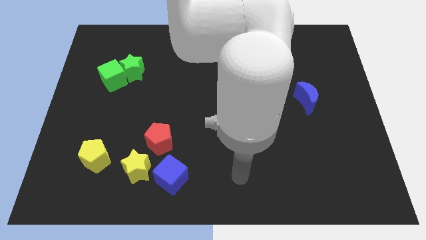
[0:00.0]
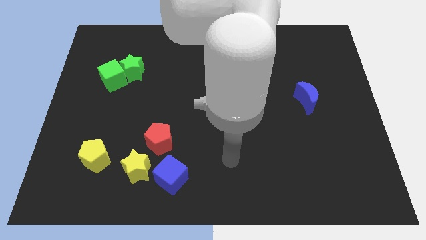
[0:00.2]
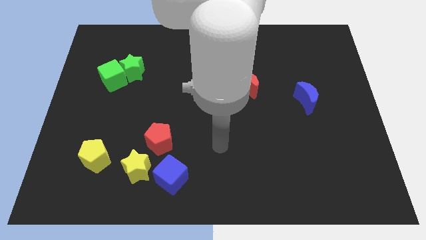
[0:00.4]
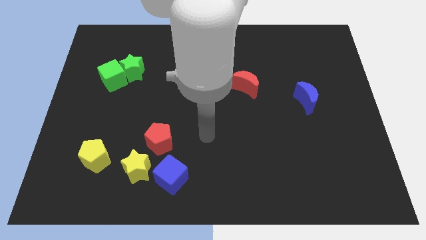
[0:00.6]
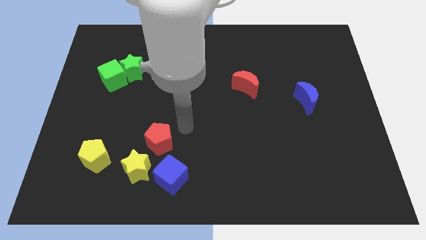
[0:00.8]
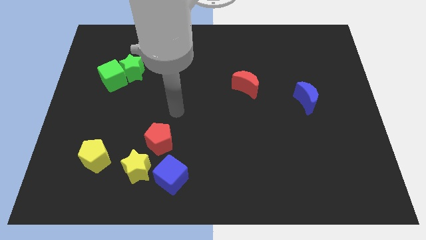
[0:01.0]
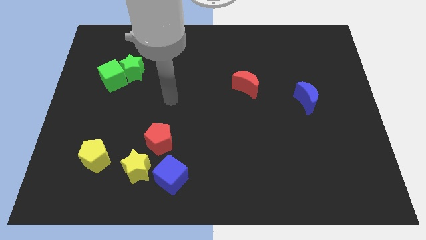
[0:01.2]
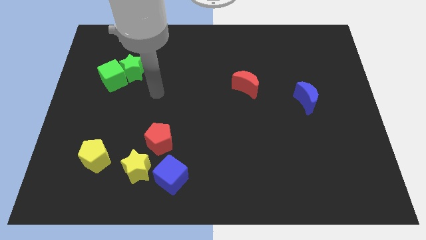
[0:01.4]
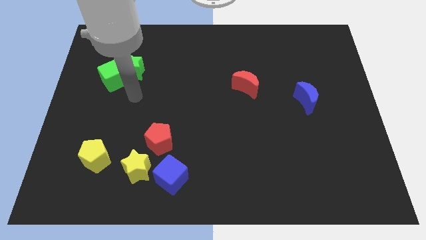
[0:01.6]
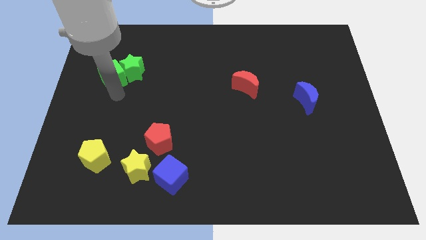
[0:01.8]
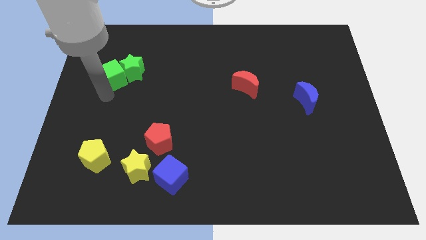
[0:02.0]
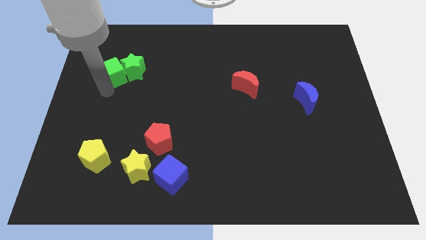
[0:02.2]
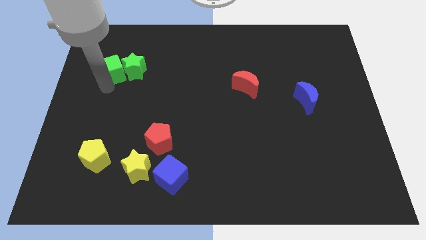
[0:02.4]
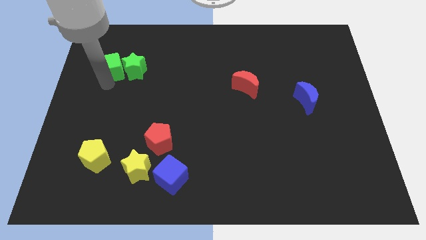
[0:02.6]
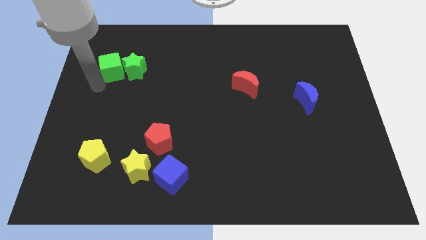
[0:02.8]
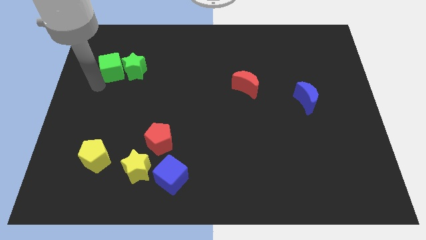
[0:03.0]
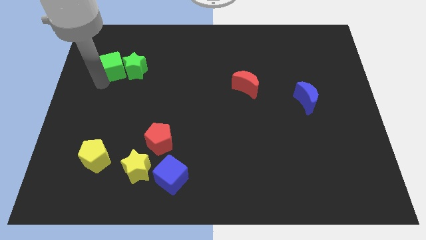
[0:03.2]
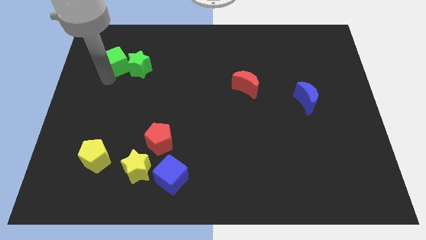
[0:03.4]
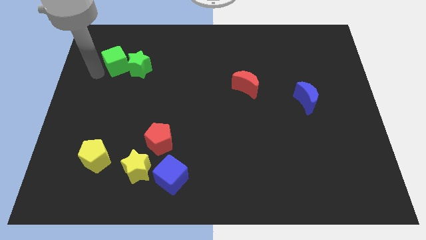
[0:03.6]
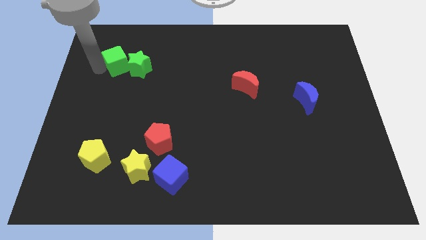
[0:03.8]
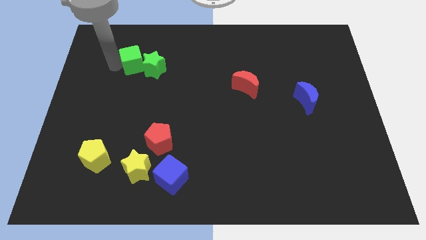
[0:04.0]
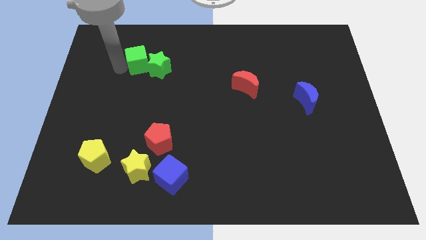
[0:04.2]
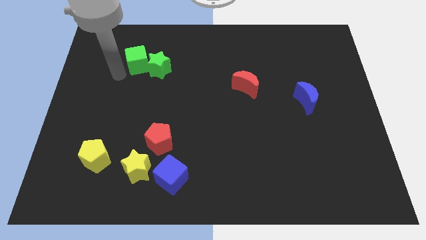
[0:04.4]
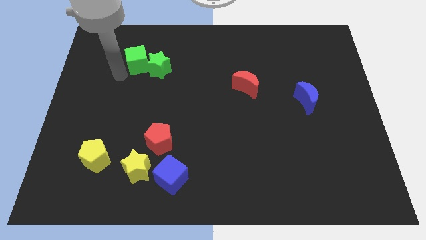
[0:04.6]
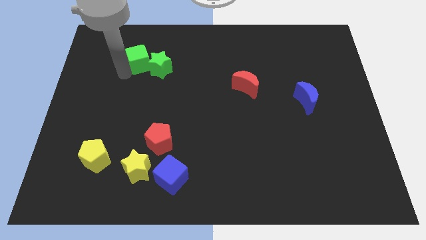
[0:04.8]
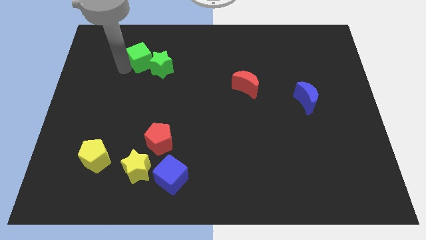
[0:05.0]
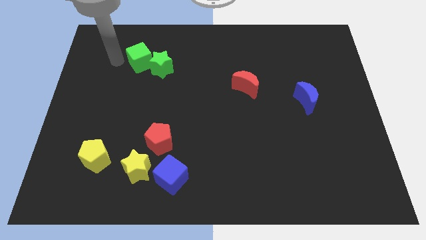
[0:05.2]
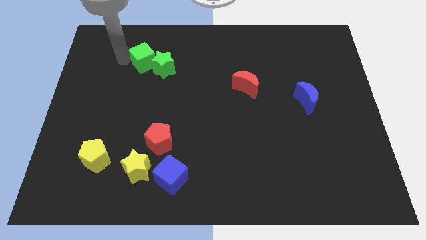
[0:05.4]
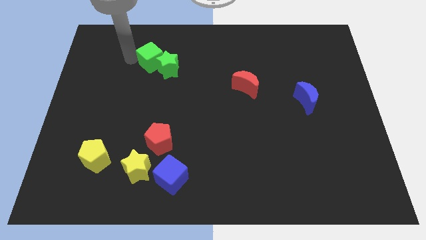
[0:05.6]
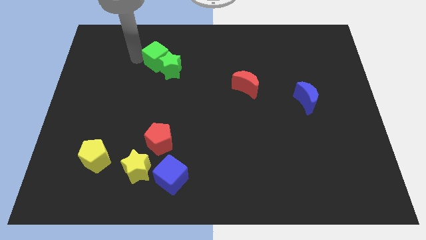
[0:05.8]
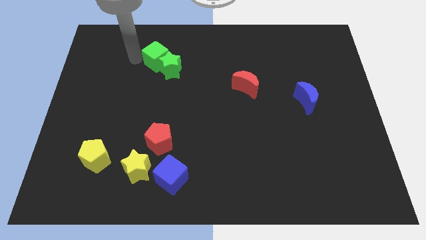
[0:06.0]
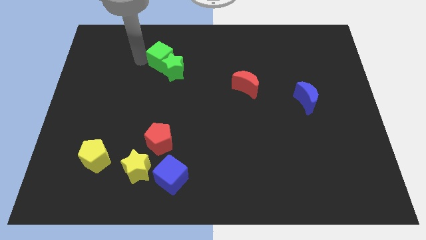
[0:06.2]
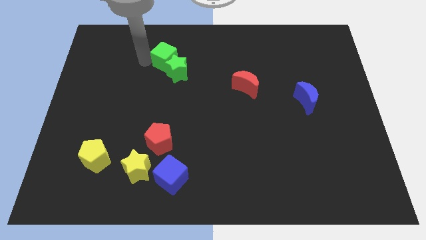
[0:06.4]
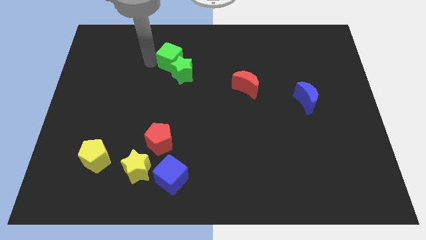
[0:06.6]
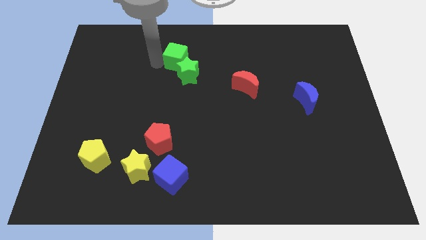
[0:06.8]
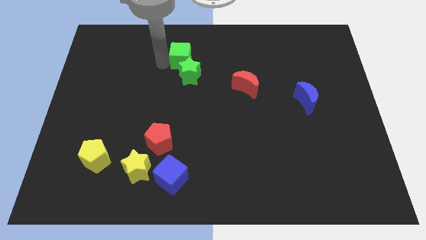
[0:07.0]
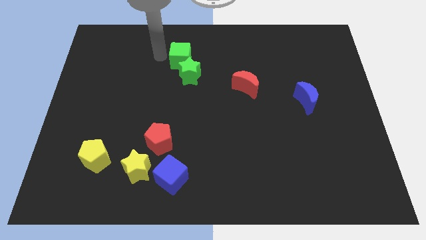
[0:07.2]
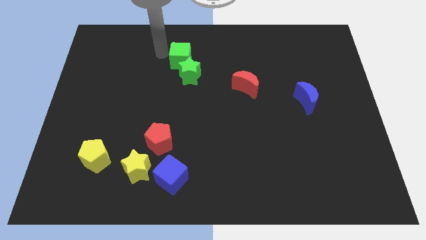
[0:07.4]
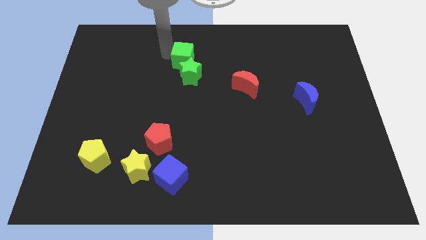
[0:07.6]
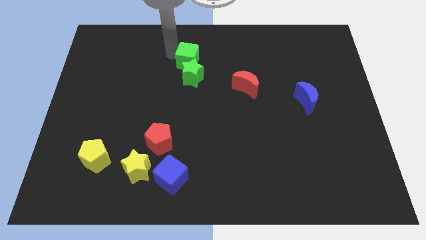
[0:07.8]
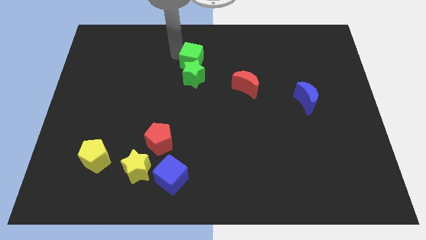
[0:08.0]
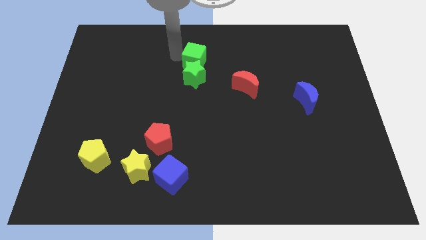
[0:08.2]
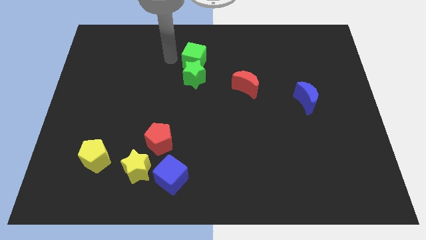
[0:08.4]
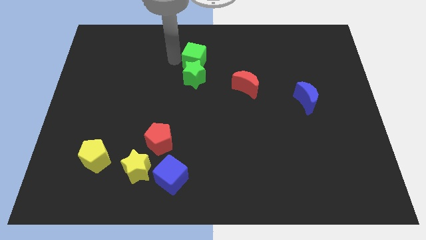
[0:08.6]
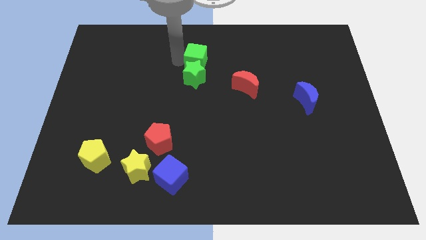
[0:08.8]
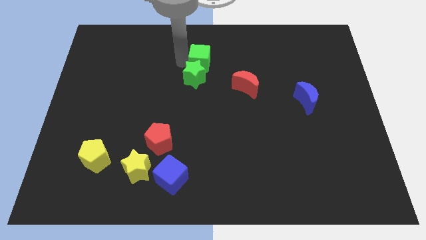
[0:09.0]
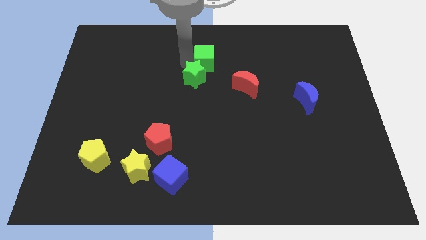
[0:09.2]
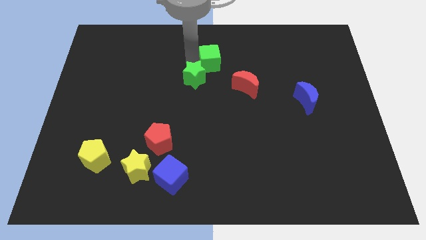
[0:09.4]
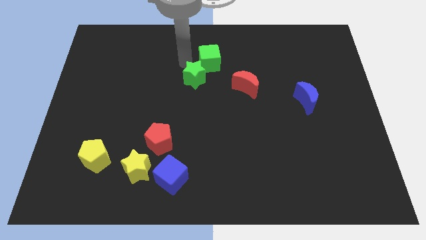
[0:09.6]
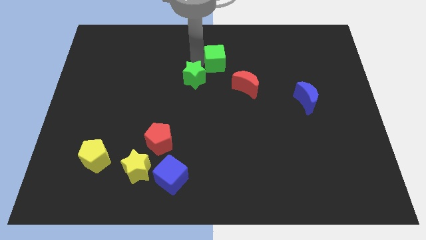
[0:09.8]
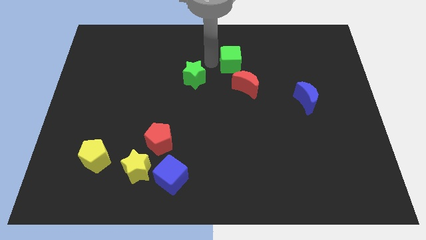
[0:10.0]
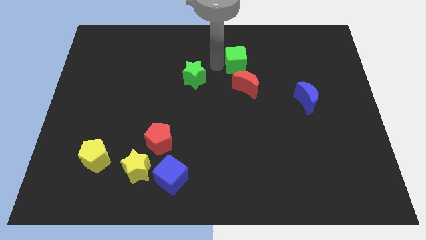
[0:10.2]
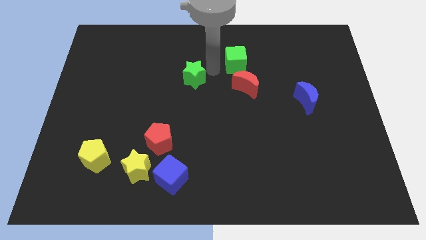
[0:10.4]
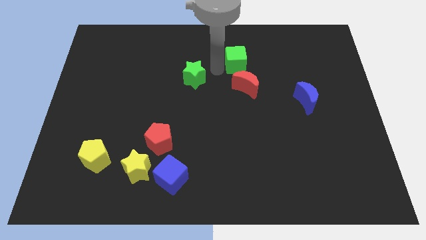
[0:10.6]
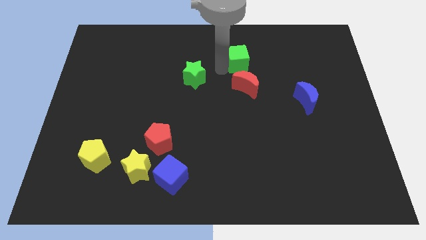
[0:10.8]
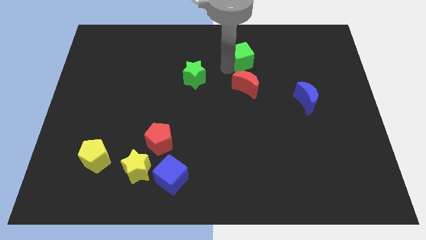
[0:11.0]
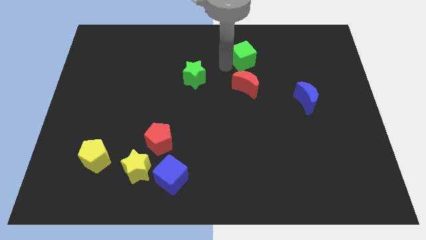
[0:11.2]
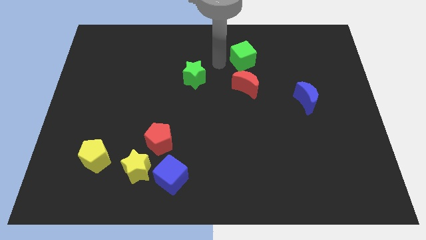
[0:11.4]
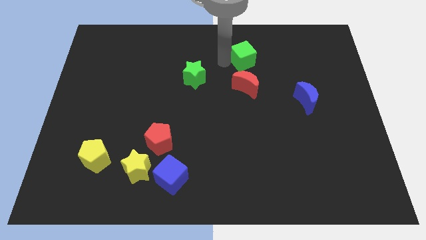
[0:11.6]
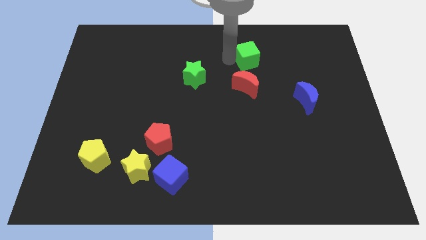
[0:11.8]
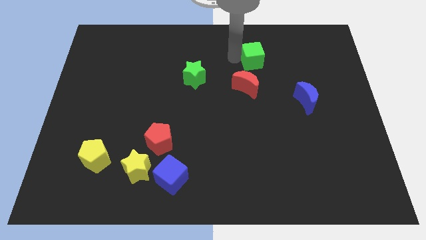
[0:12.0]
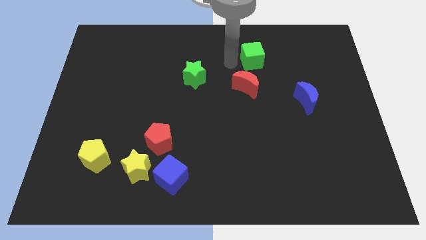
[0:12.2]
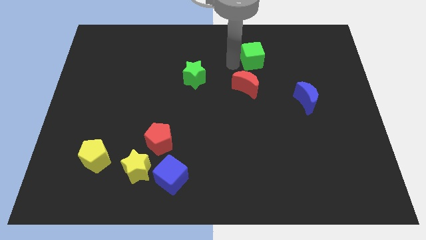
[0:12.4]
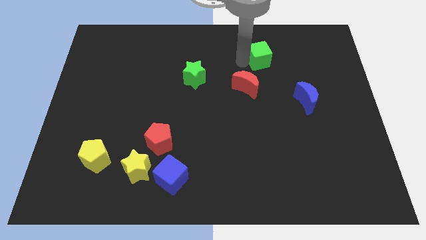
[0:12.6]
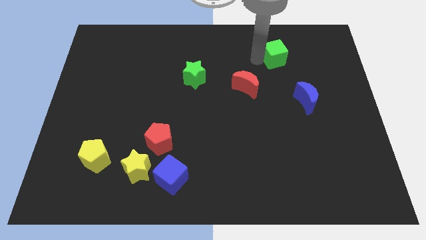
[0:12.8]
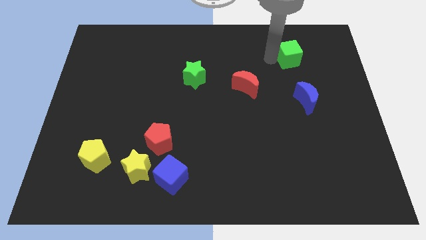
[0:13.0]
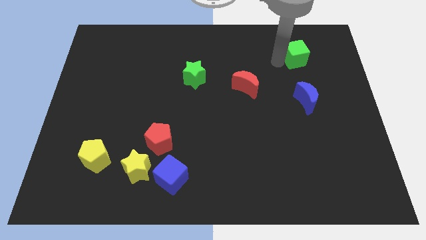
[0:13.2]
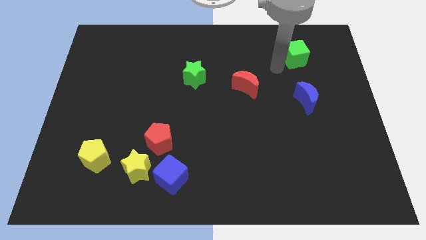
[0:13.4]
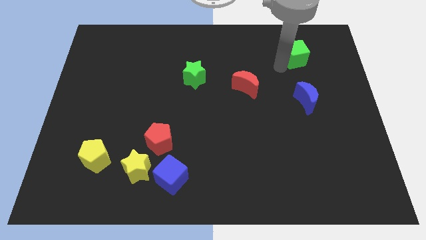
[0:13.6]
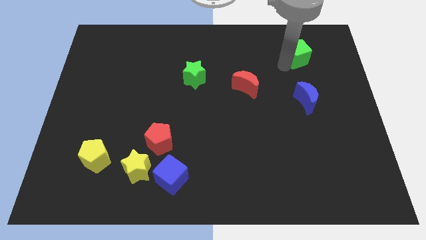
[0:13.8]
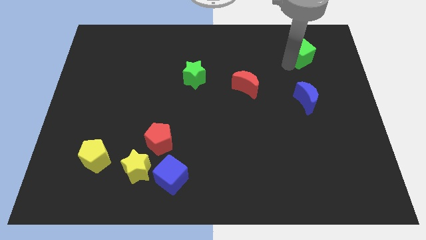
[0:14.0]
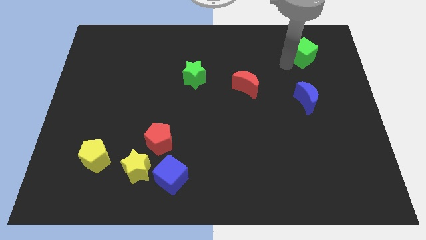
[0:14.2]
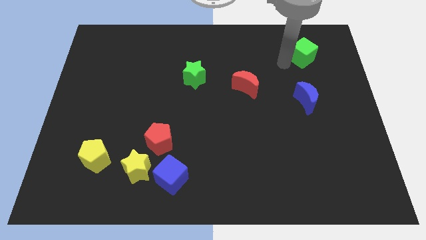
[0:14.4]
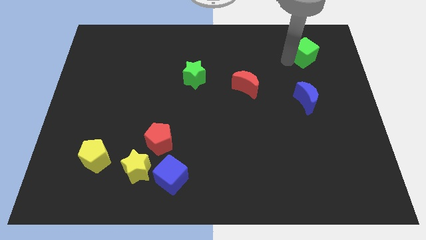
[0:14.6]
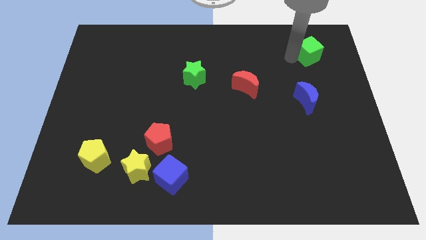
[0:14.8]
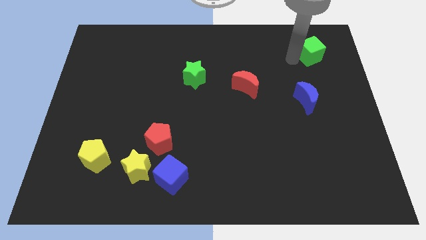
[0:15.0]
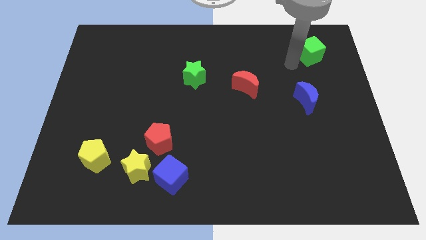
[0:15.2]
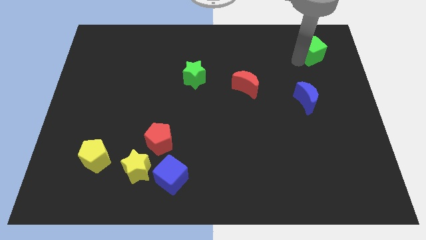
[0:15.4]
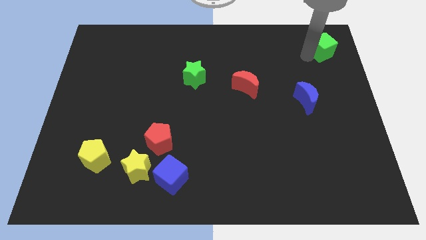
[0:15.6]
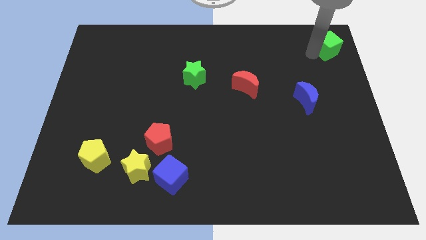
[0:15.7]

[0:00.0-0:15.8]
push the green cube to the top right corner
